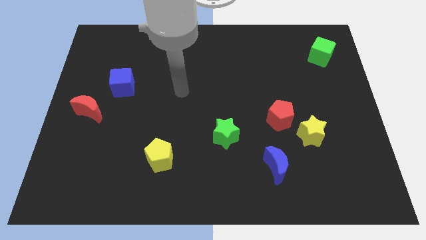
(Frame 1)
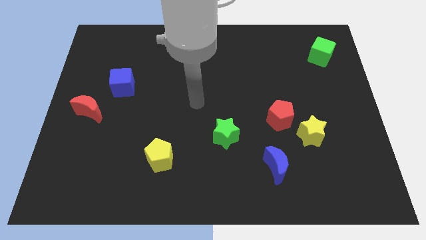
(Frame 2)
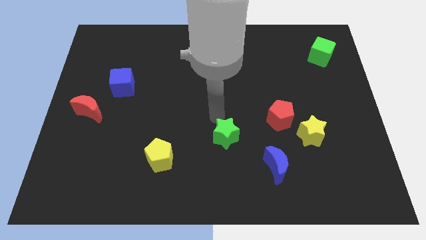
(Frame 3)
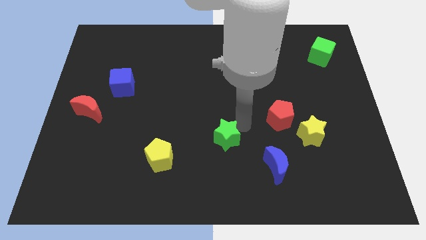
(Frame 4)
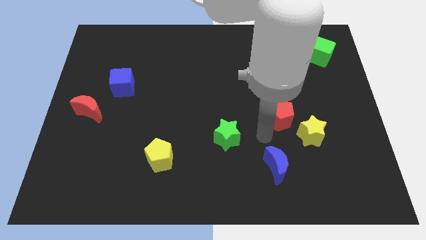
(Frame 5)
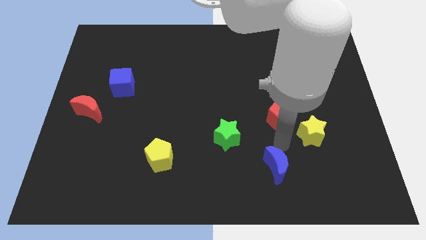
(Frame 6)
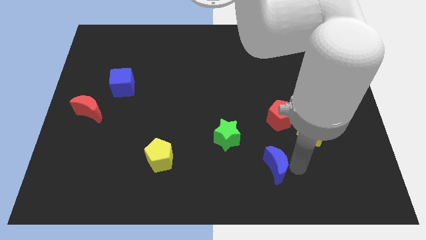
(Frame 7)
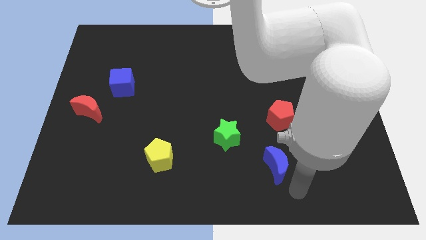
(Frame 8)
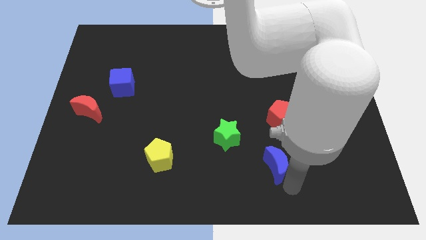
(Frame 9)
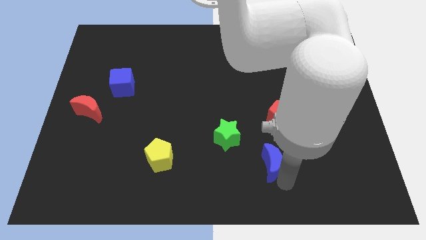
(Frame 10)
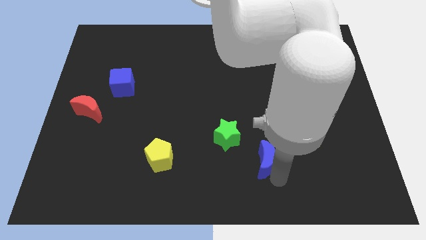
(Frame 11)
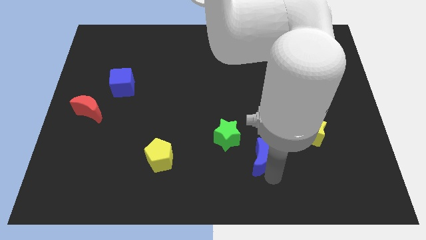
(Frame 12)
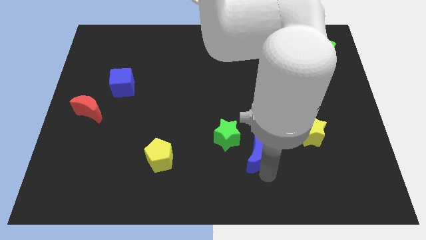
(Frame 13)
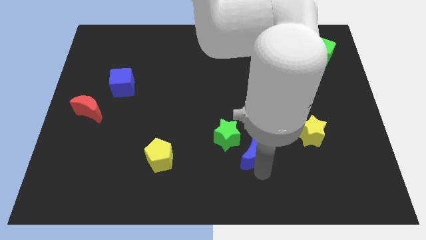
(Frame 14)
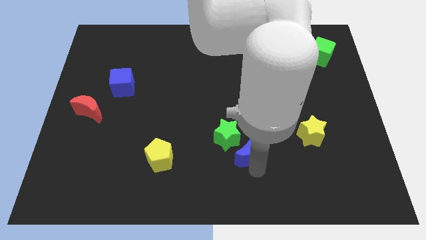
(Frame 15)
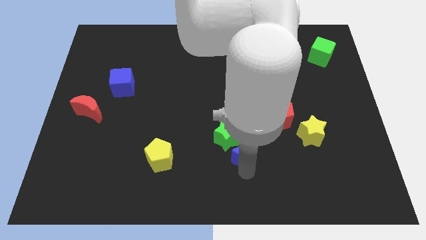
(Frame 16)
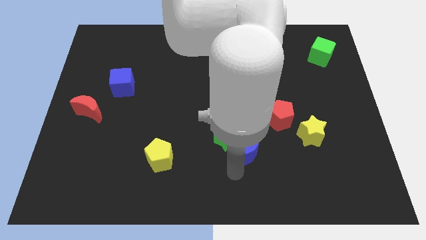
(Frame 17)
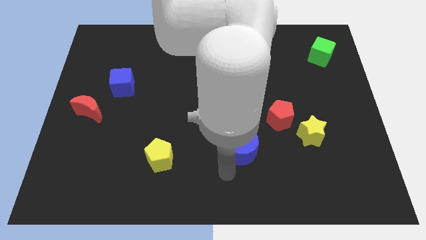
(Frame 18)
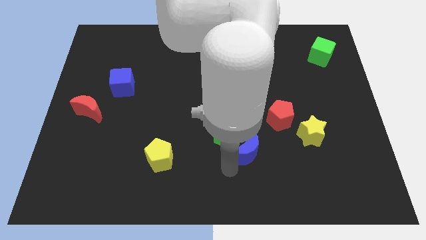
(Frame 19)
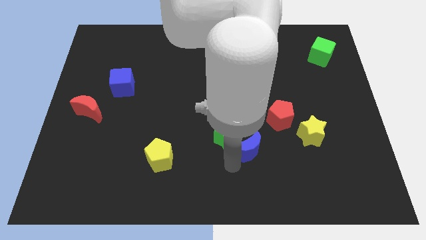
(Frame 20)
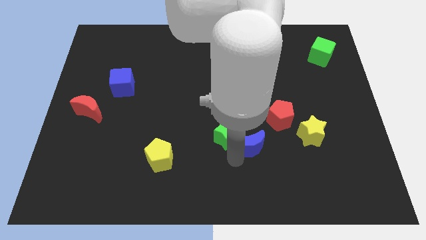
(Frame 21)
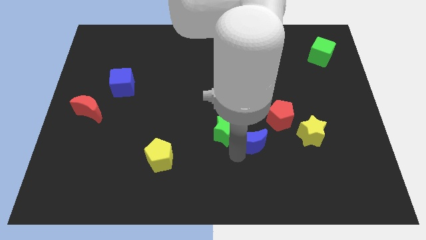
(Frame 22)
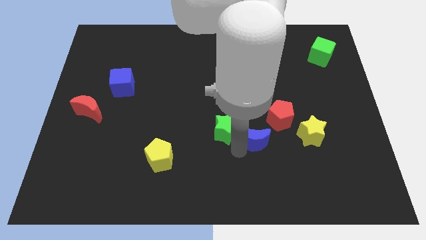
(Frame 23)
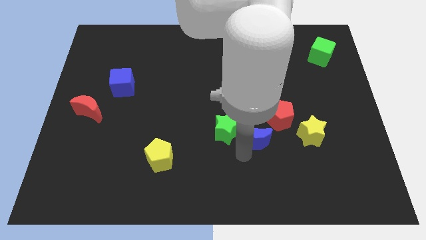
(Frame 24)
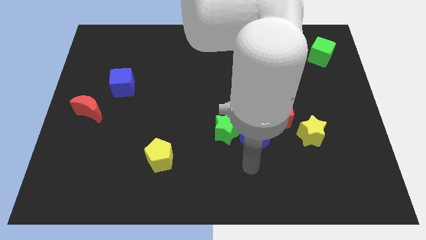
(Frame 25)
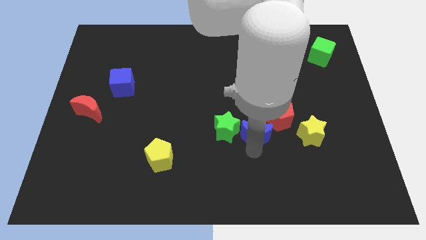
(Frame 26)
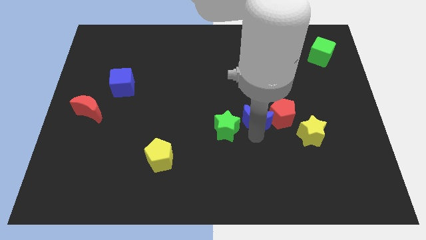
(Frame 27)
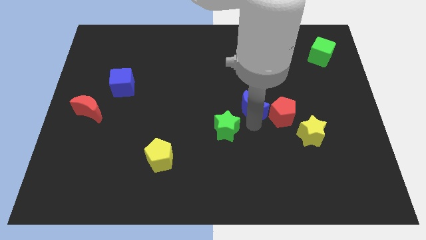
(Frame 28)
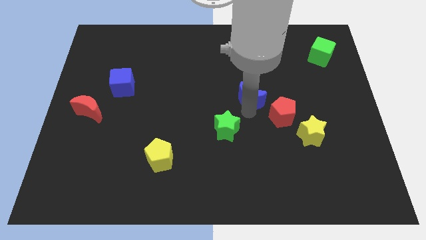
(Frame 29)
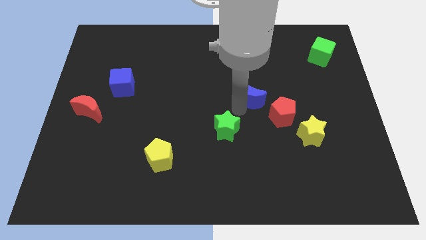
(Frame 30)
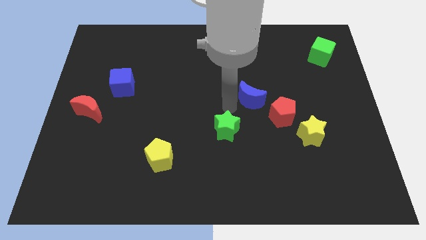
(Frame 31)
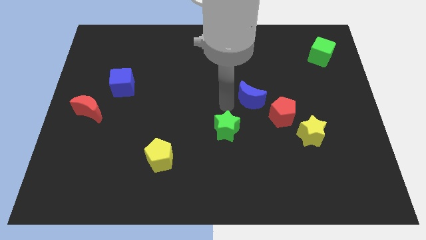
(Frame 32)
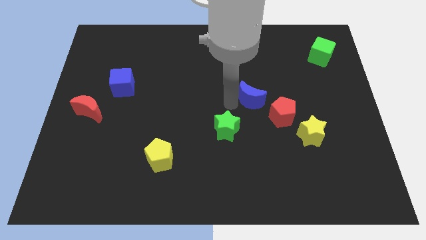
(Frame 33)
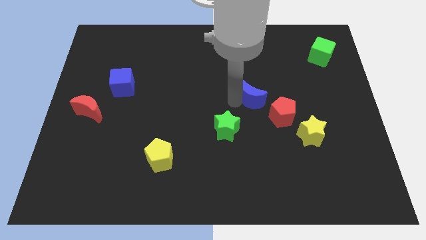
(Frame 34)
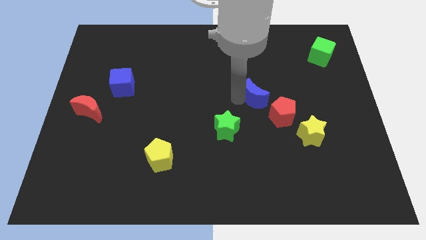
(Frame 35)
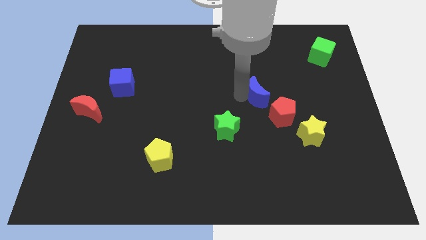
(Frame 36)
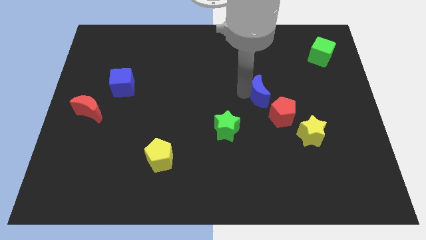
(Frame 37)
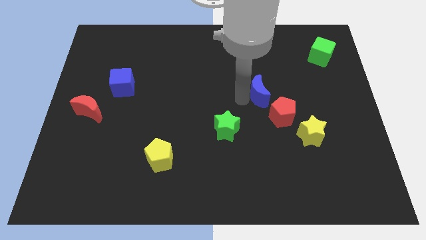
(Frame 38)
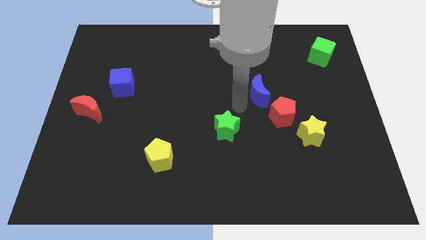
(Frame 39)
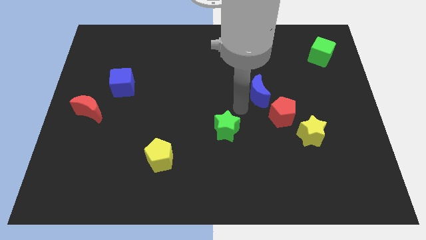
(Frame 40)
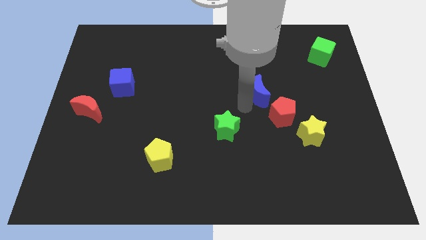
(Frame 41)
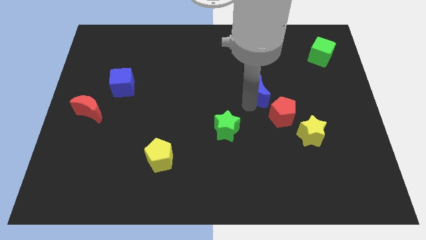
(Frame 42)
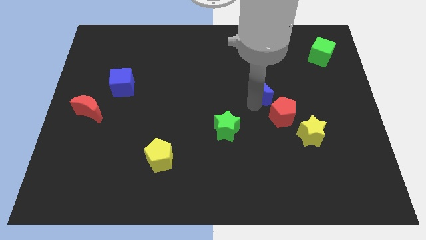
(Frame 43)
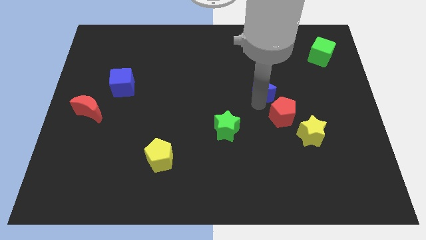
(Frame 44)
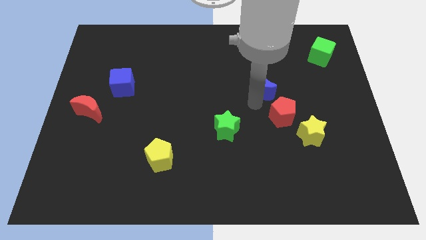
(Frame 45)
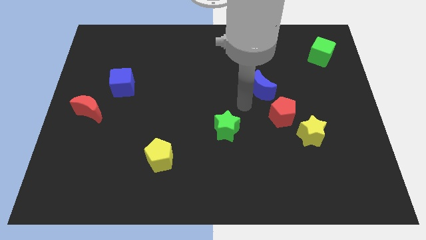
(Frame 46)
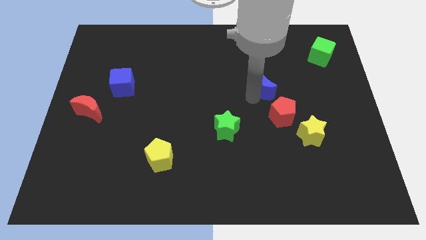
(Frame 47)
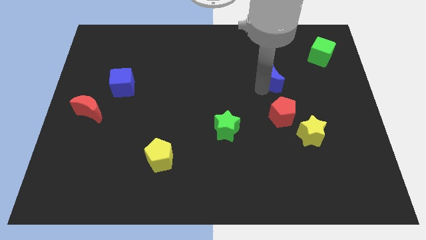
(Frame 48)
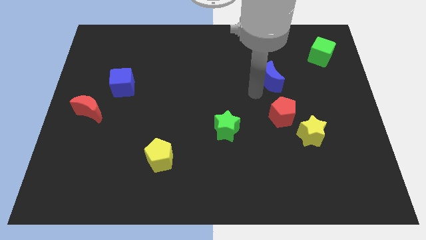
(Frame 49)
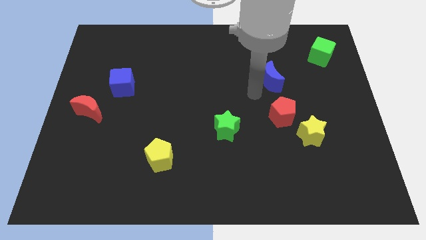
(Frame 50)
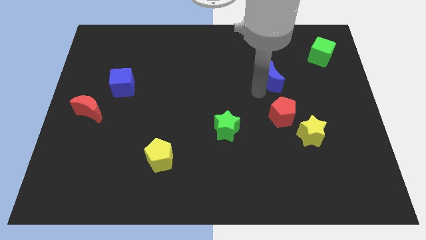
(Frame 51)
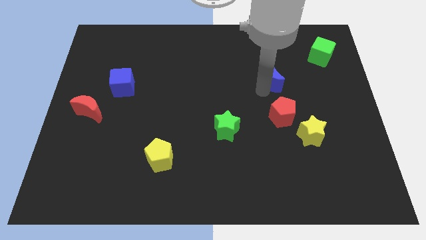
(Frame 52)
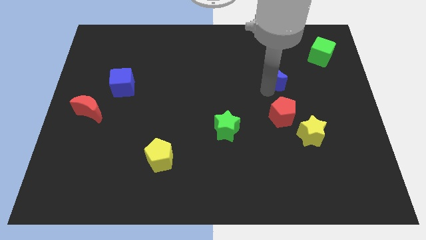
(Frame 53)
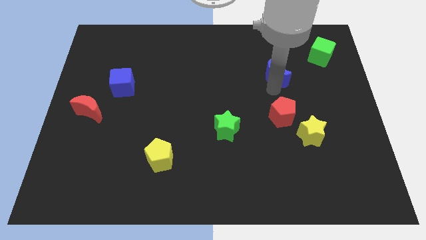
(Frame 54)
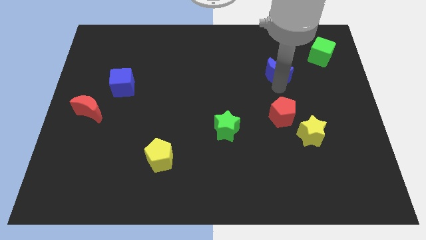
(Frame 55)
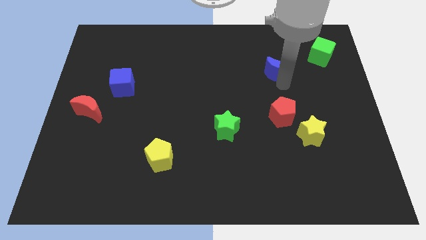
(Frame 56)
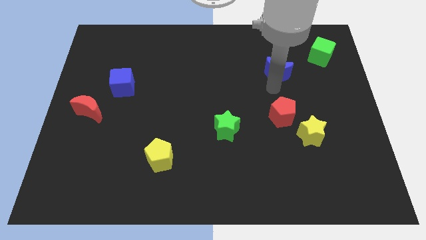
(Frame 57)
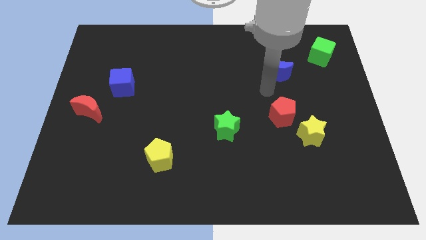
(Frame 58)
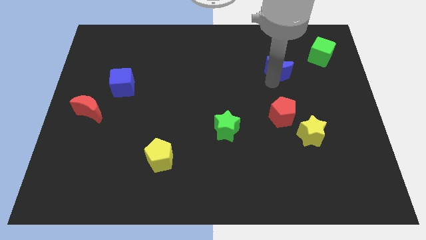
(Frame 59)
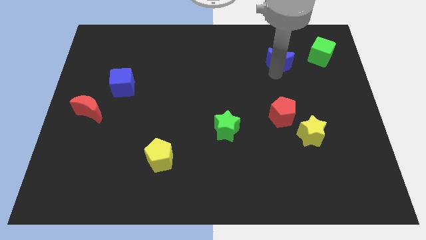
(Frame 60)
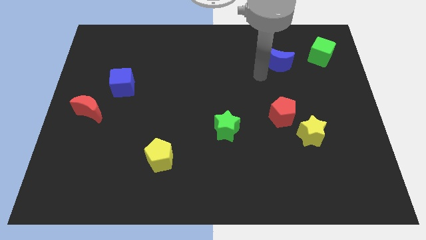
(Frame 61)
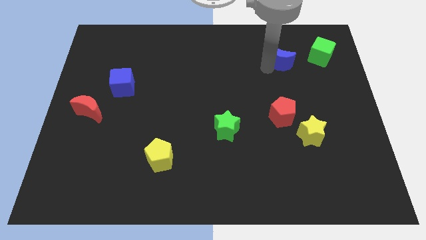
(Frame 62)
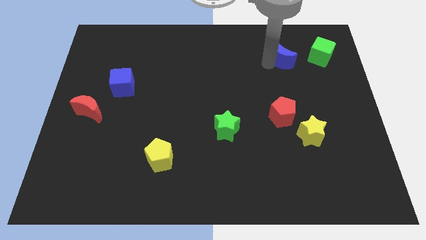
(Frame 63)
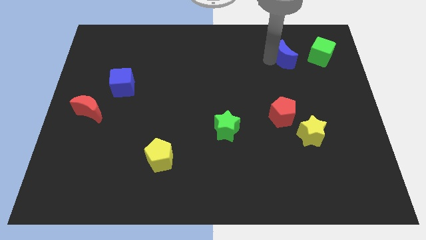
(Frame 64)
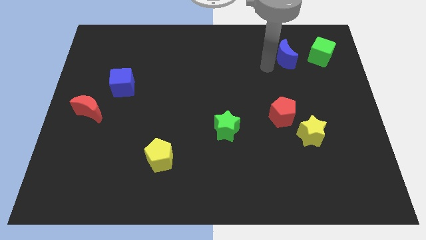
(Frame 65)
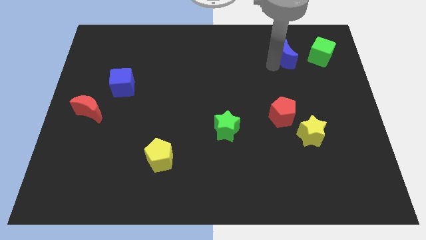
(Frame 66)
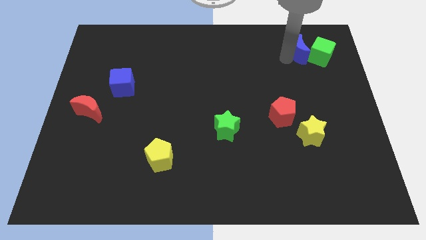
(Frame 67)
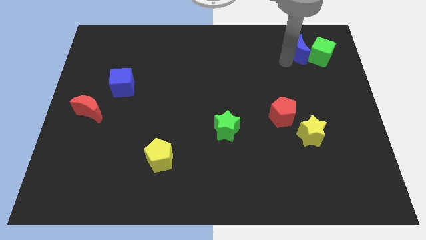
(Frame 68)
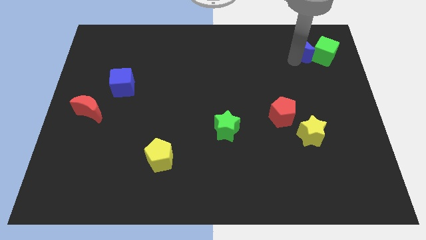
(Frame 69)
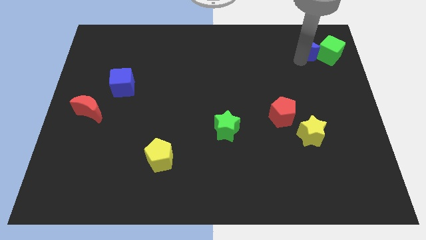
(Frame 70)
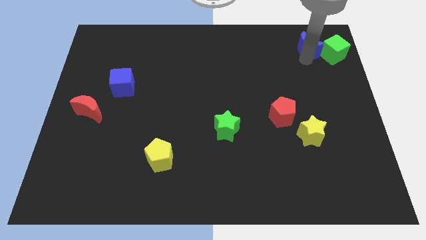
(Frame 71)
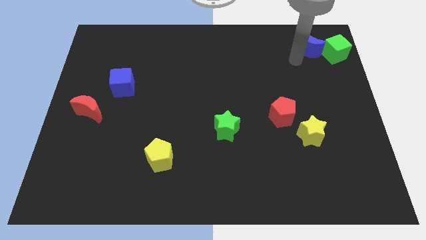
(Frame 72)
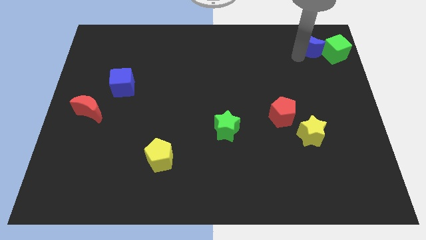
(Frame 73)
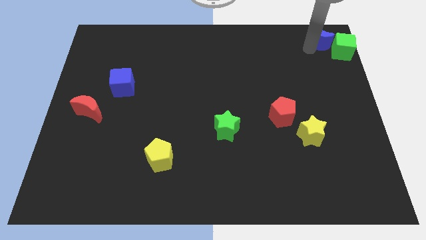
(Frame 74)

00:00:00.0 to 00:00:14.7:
push the blue moon to the top right of the board
